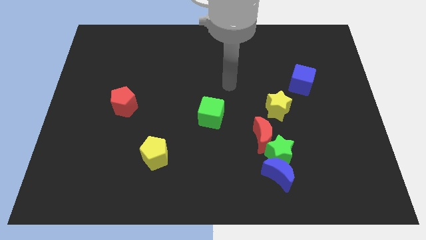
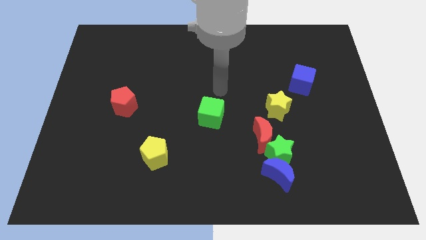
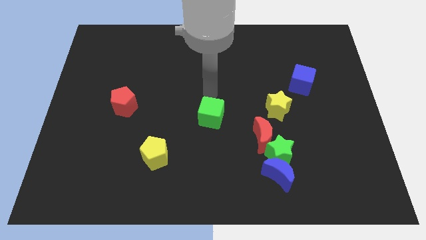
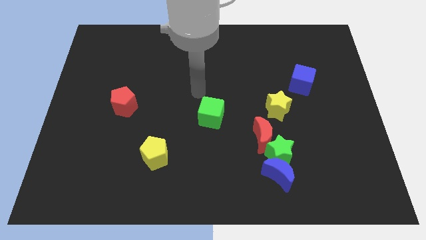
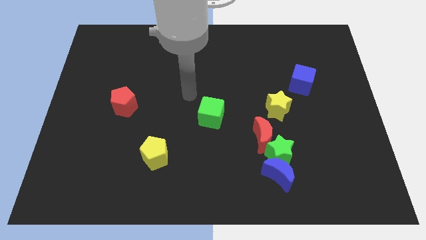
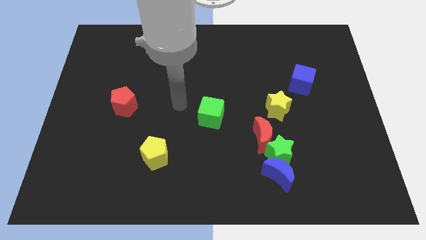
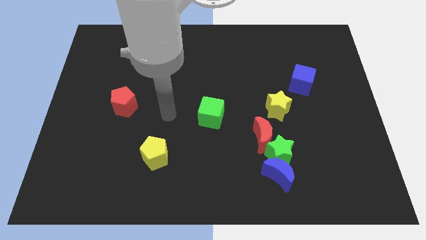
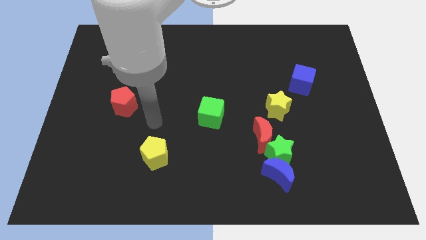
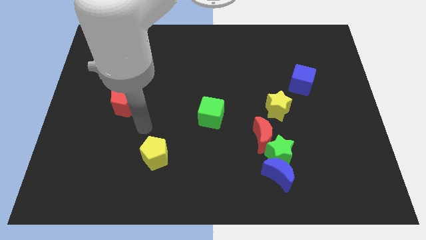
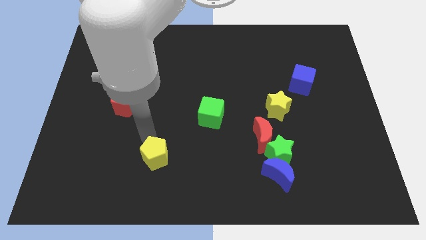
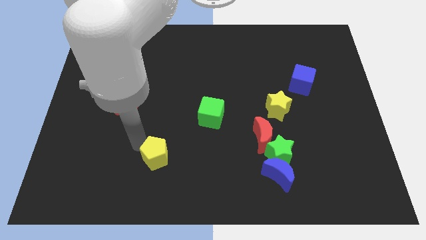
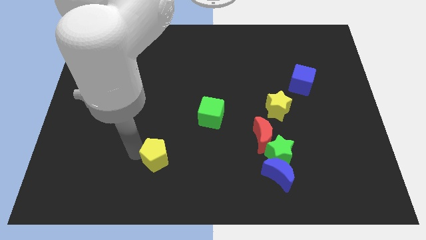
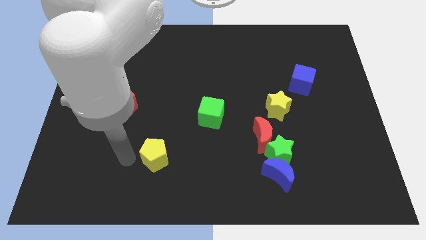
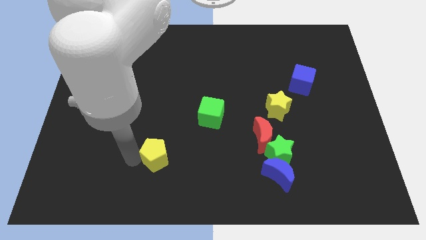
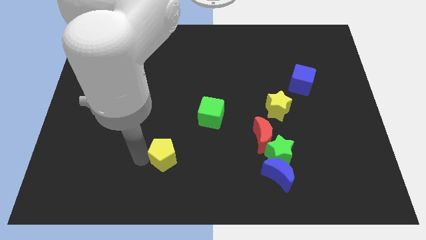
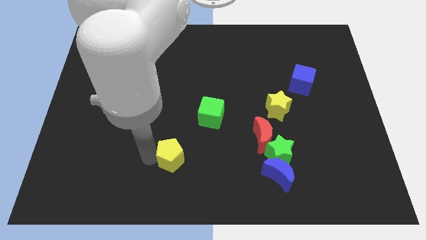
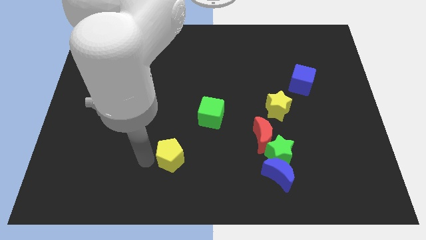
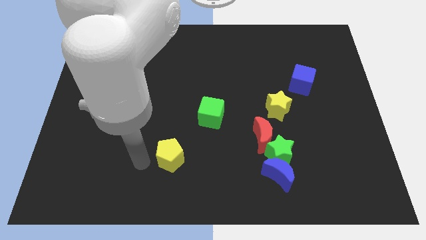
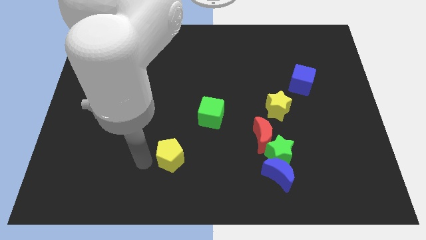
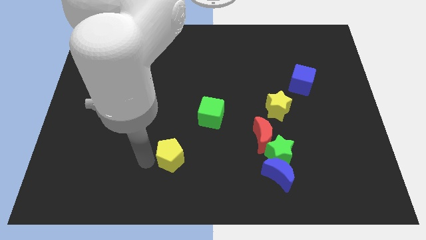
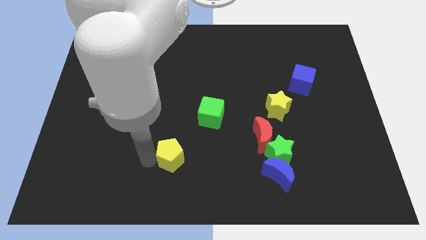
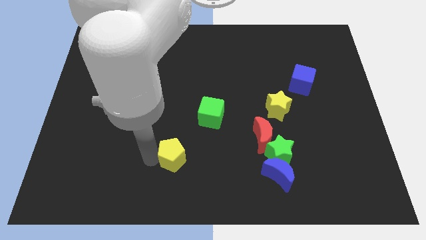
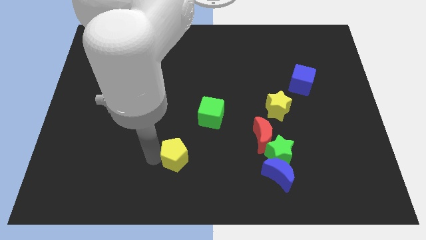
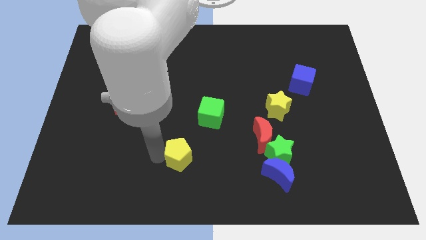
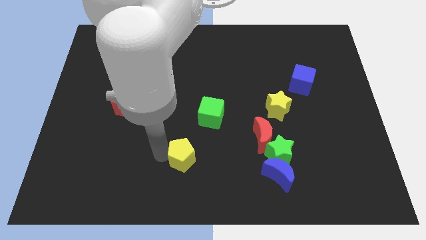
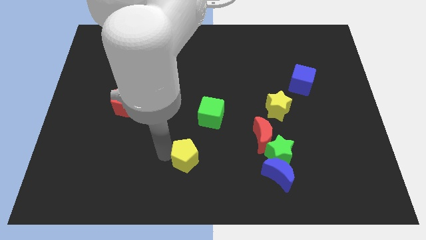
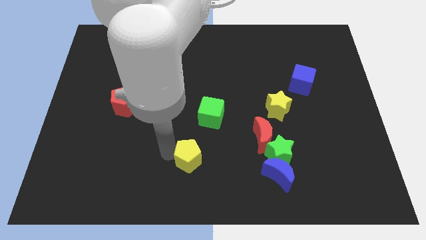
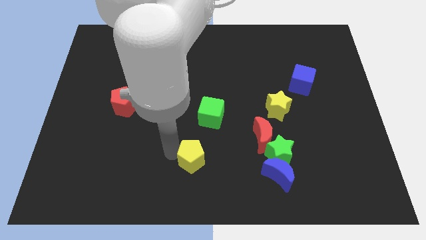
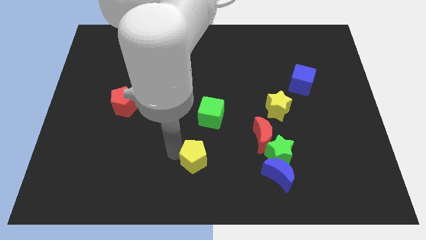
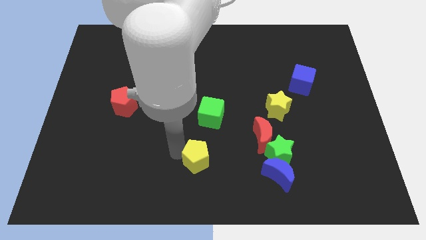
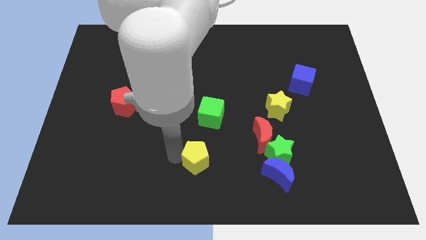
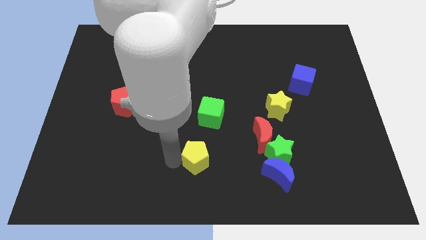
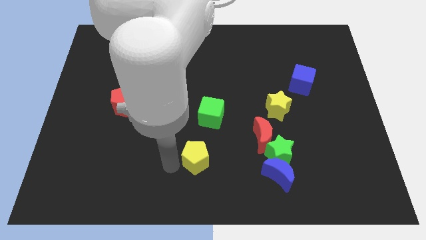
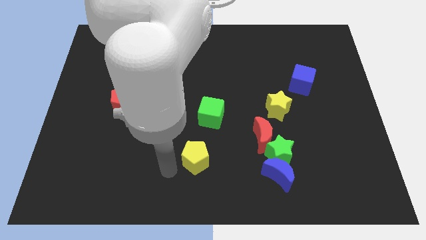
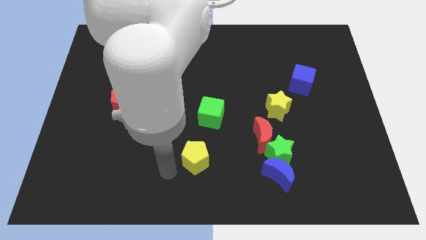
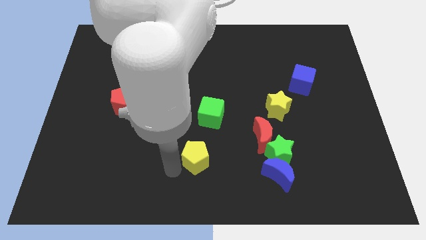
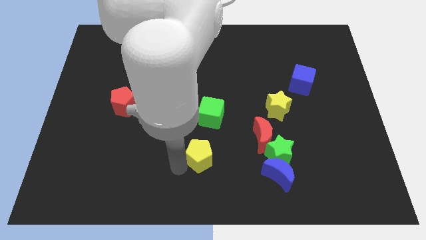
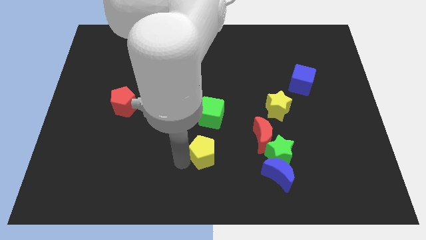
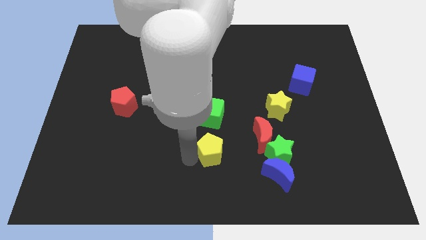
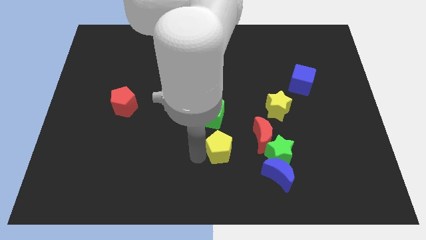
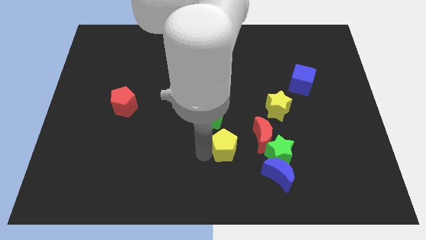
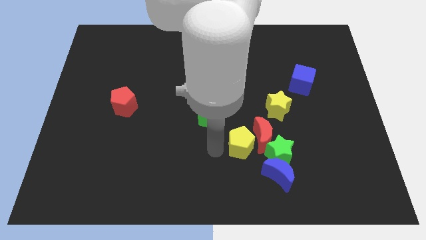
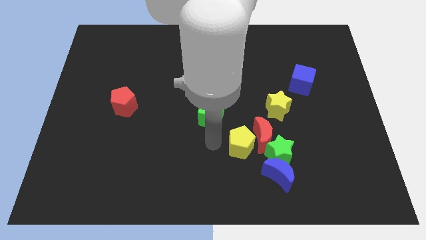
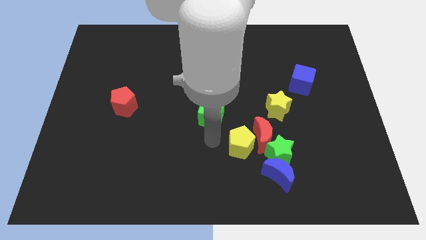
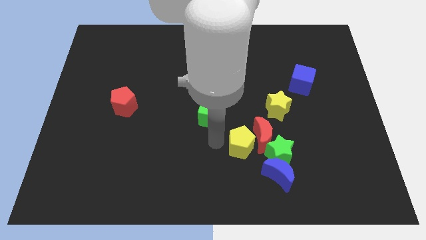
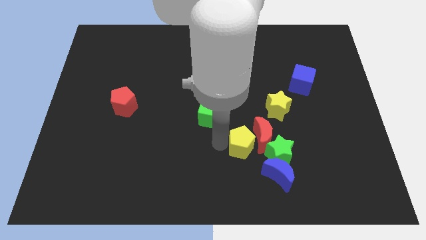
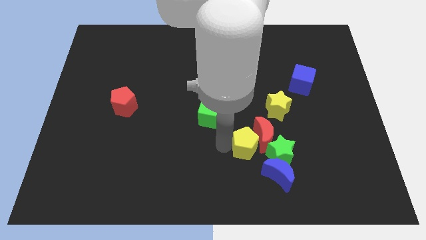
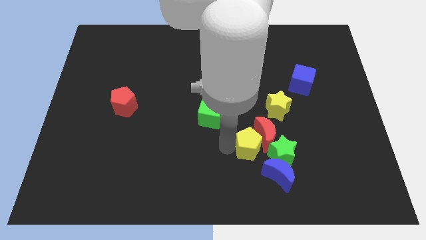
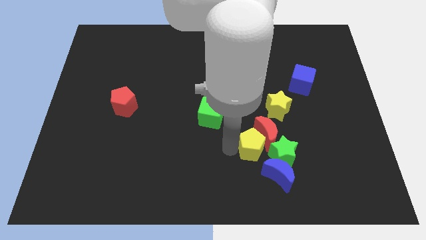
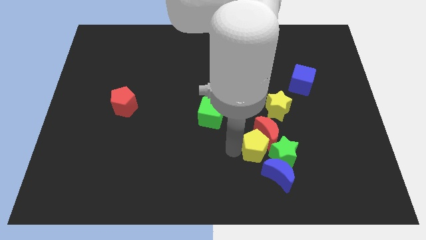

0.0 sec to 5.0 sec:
slide the yellow pentagon towards the green star

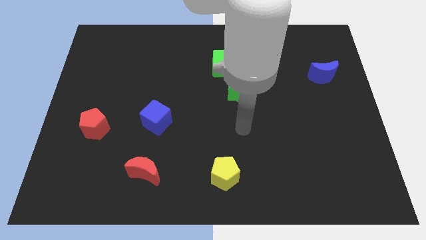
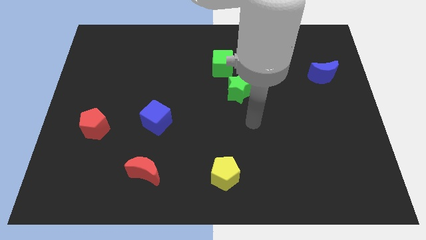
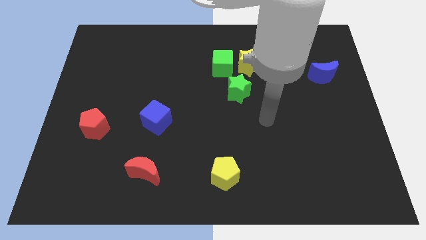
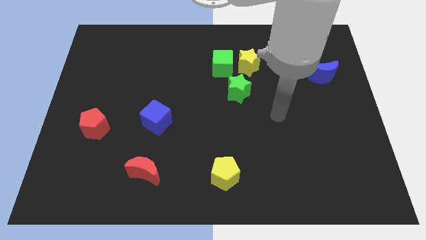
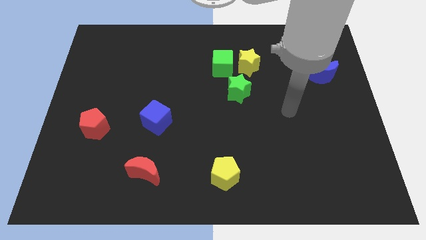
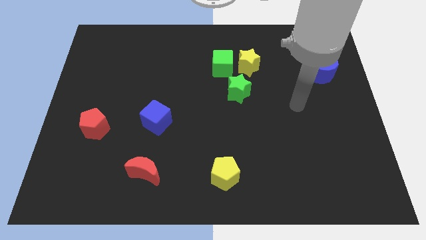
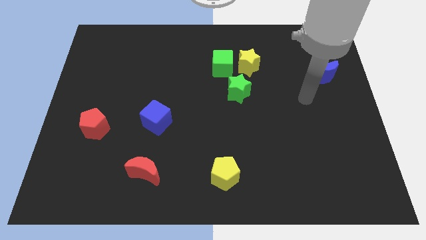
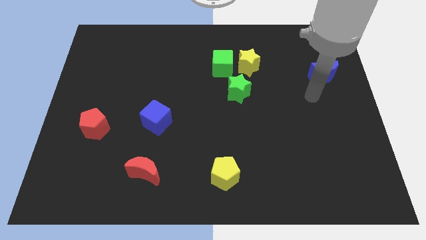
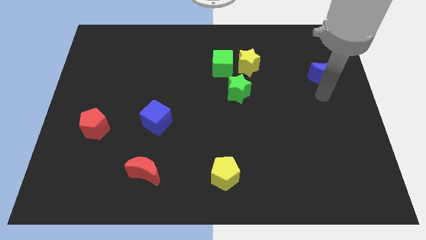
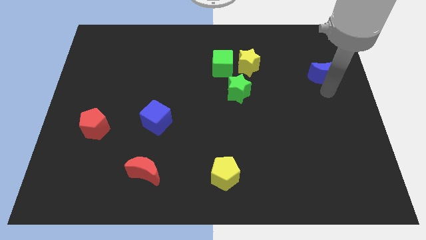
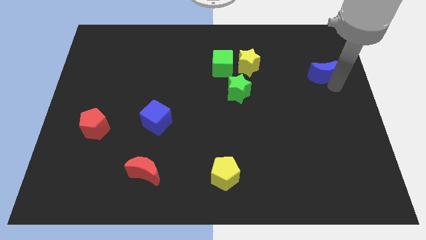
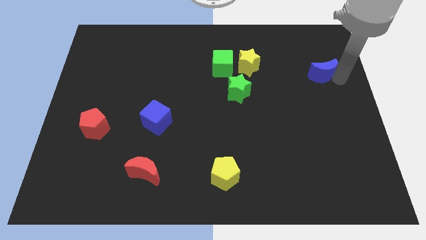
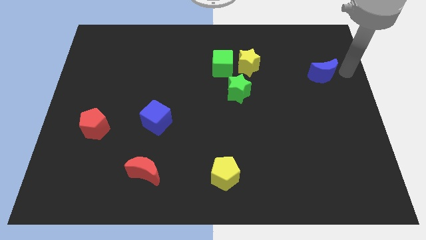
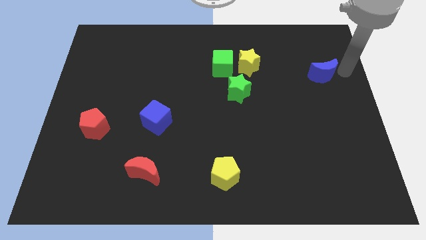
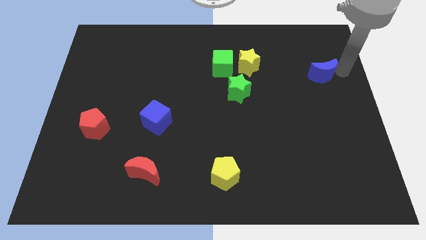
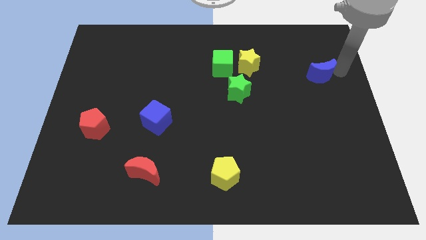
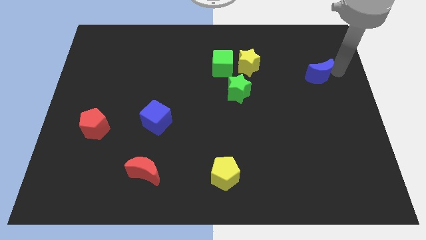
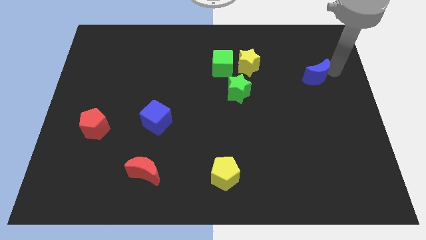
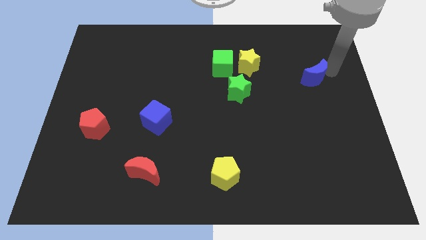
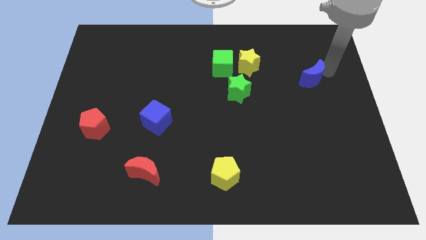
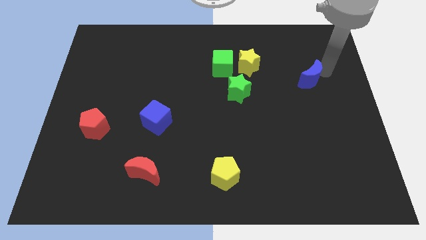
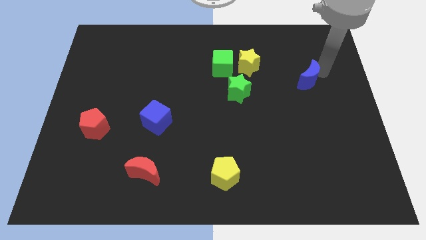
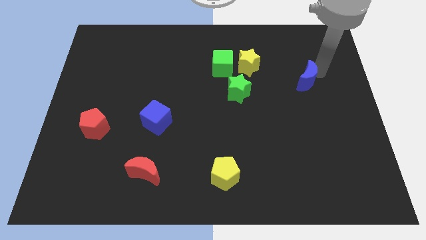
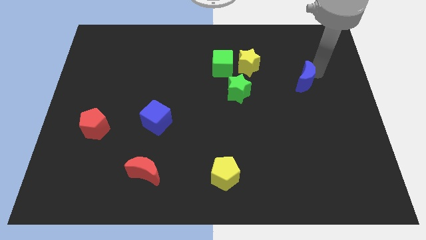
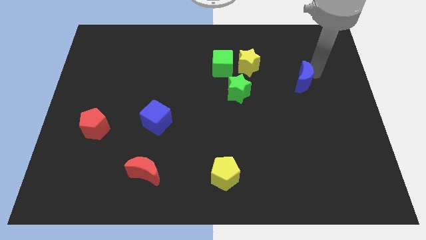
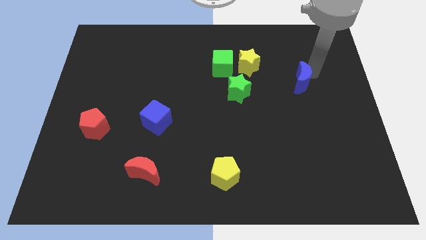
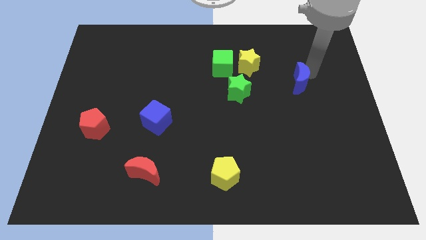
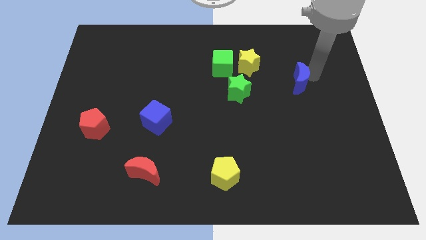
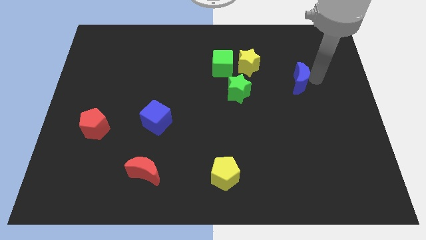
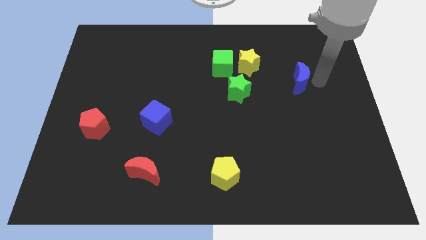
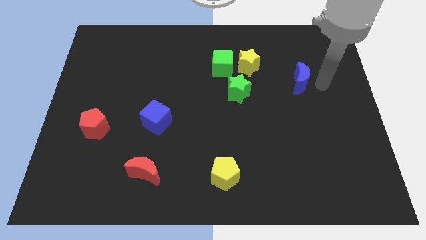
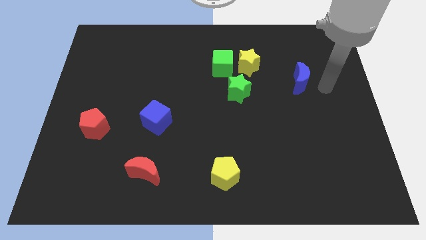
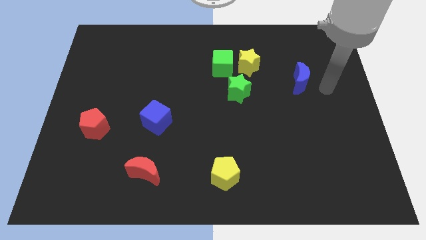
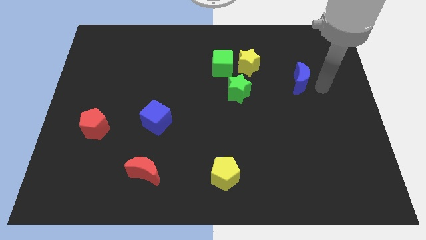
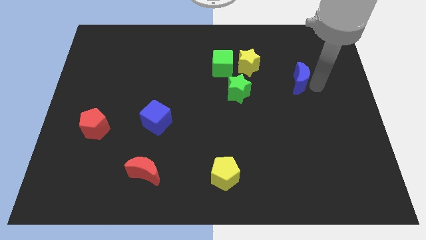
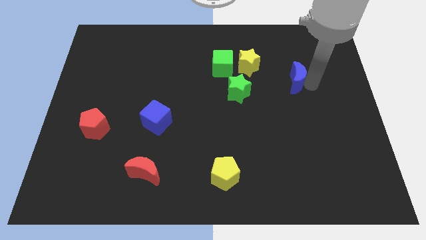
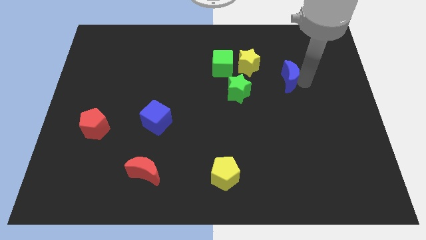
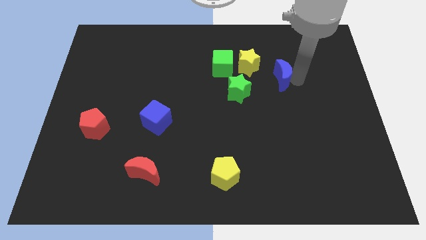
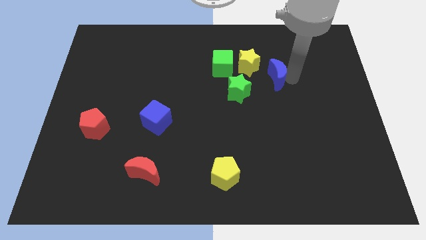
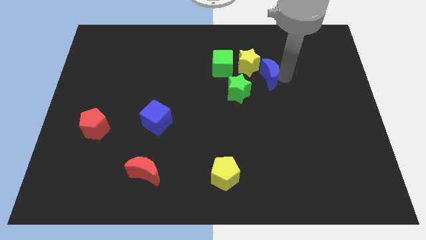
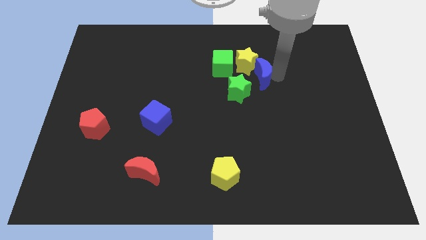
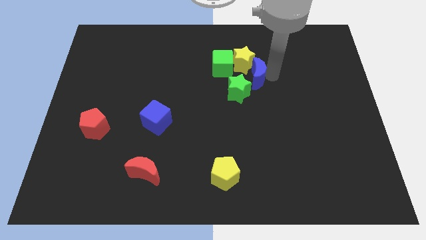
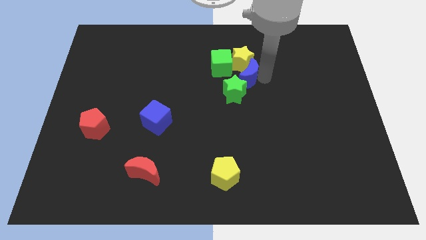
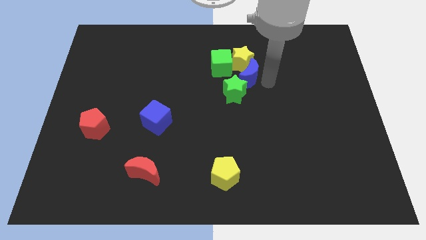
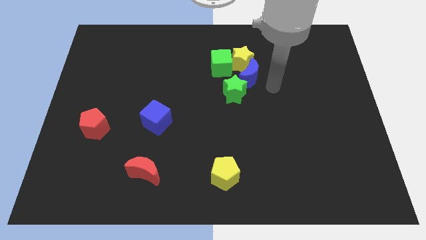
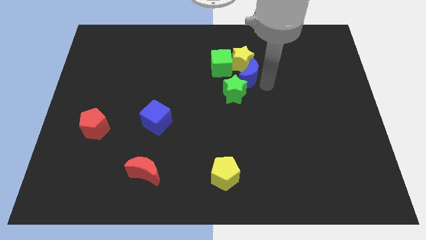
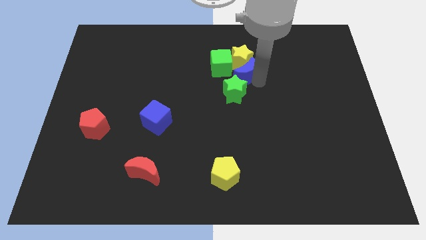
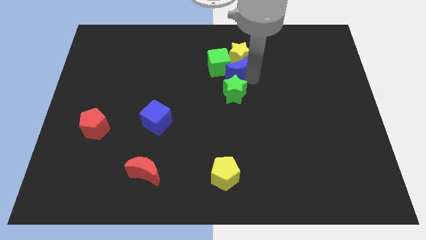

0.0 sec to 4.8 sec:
move the blue moon towards the green cube
